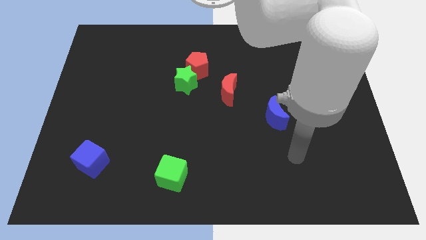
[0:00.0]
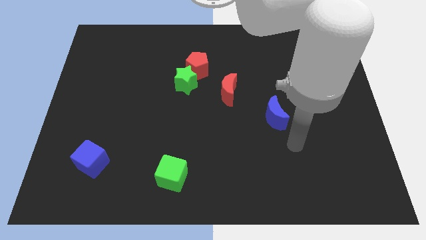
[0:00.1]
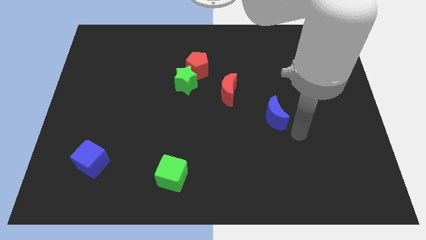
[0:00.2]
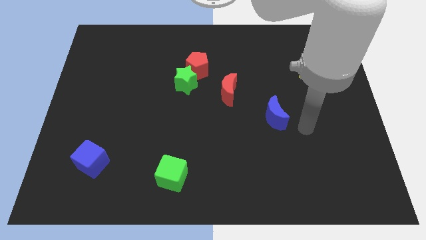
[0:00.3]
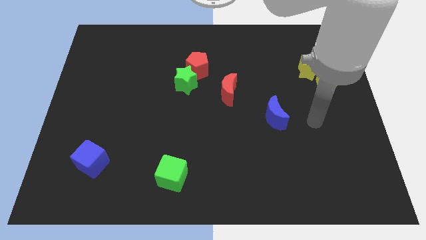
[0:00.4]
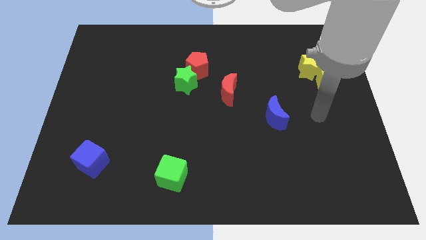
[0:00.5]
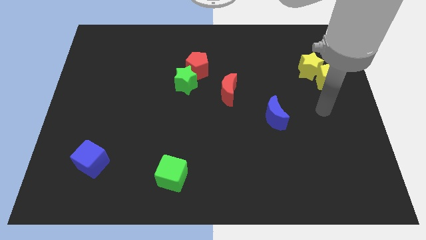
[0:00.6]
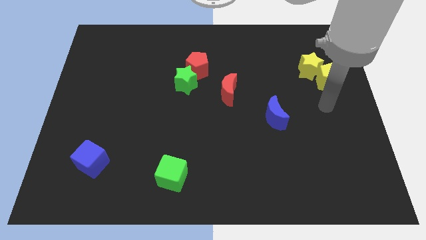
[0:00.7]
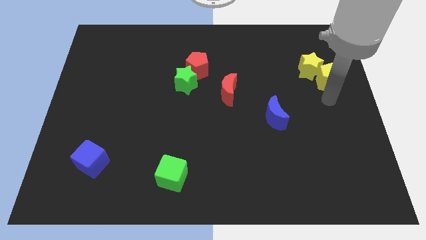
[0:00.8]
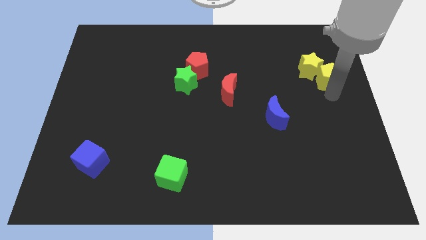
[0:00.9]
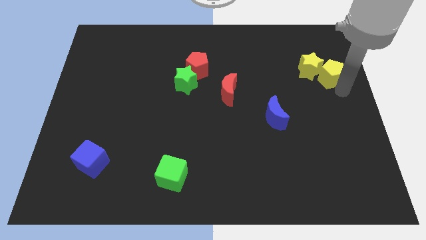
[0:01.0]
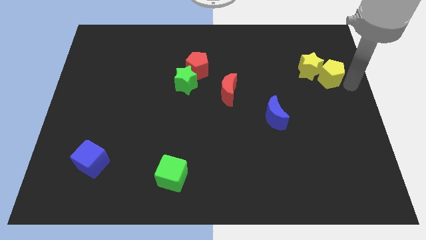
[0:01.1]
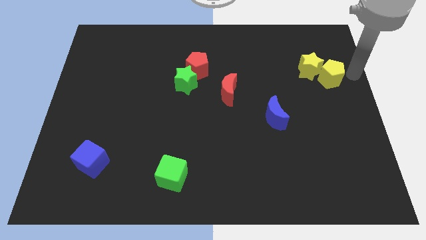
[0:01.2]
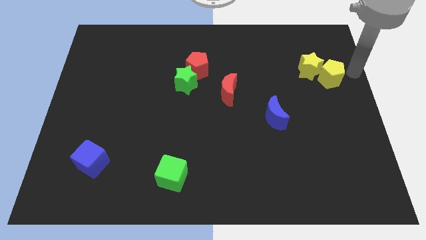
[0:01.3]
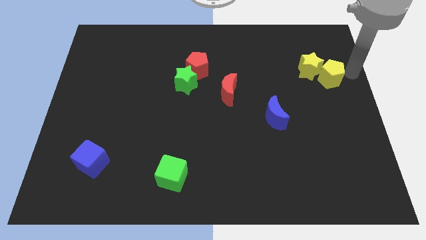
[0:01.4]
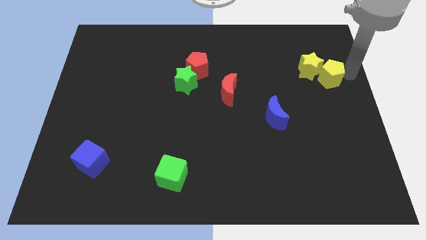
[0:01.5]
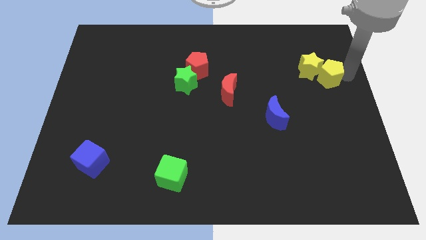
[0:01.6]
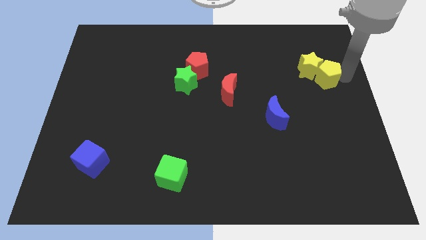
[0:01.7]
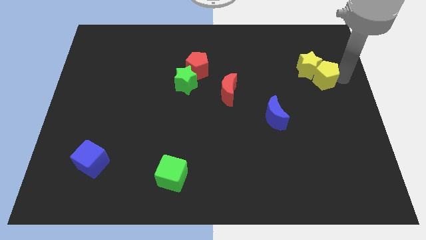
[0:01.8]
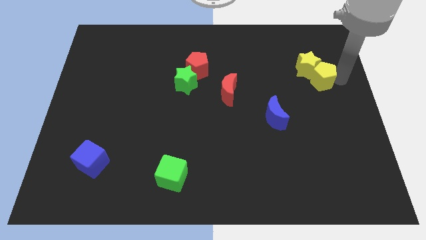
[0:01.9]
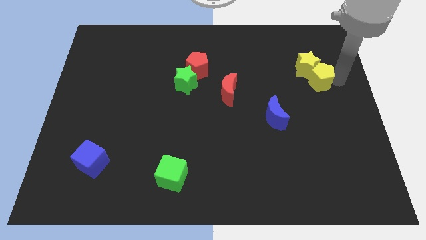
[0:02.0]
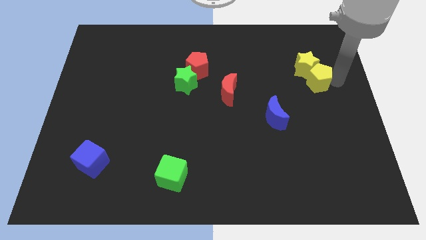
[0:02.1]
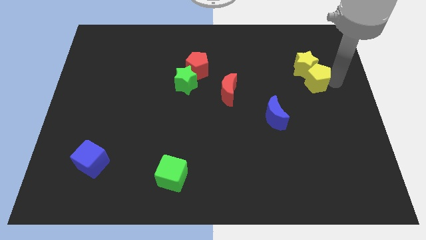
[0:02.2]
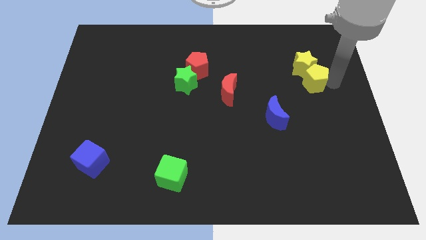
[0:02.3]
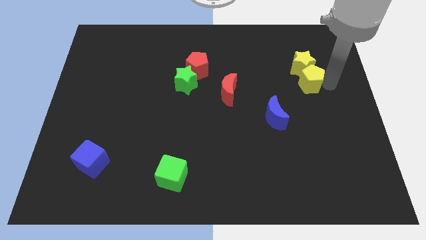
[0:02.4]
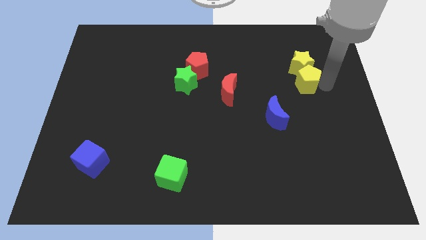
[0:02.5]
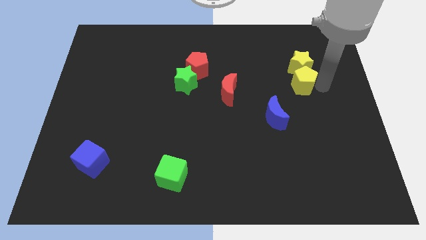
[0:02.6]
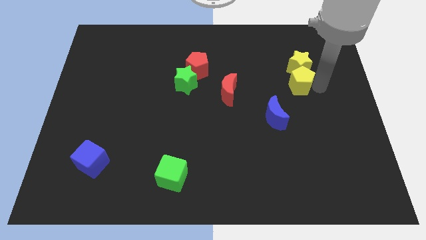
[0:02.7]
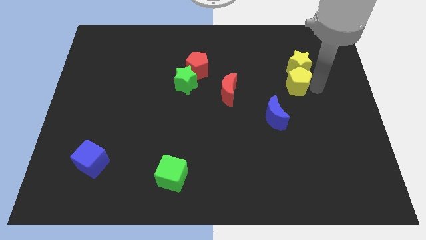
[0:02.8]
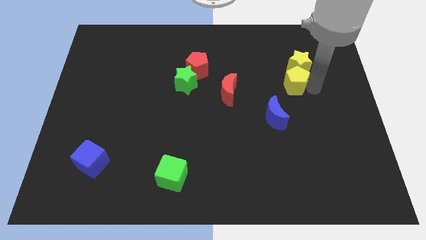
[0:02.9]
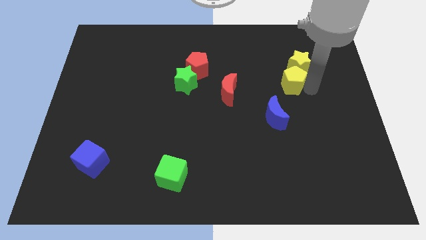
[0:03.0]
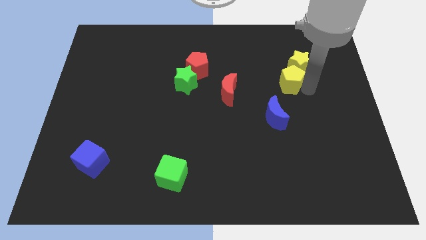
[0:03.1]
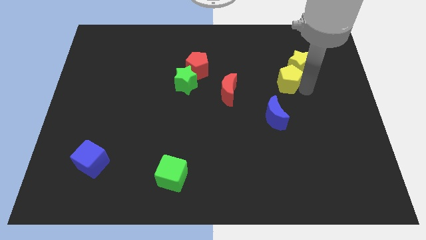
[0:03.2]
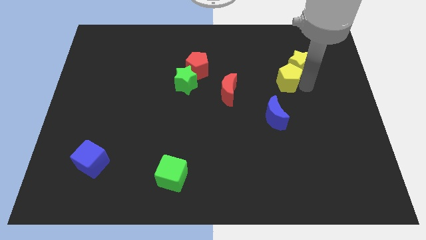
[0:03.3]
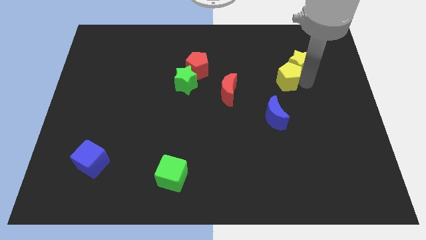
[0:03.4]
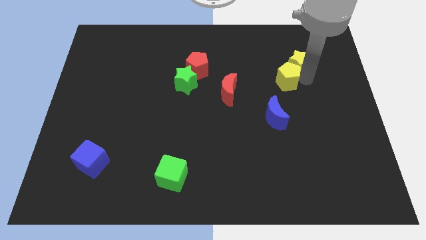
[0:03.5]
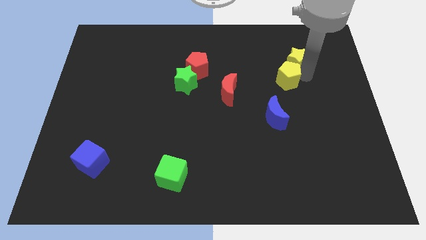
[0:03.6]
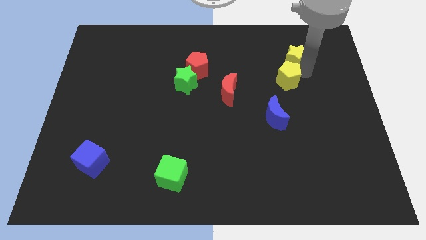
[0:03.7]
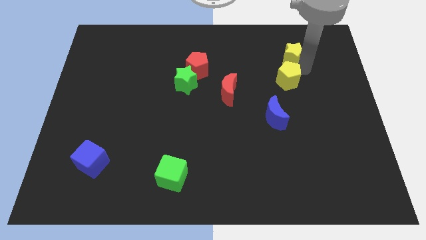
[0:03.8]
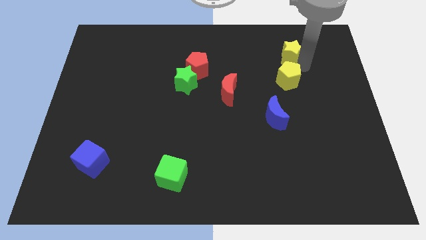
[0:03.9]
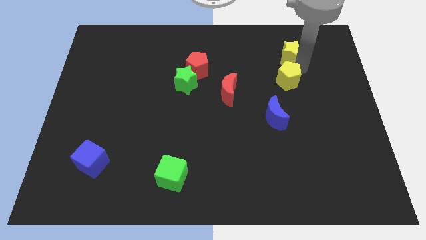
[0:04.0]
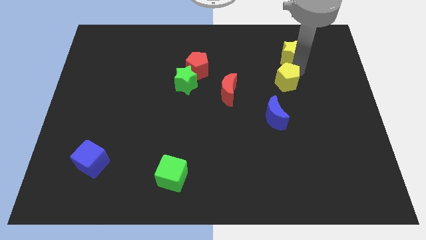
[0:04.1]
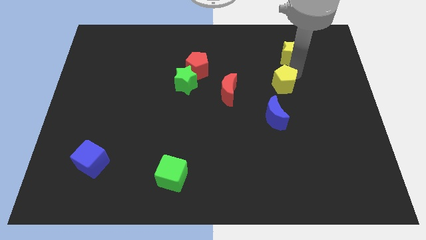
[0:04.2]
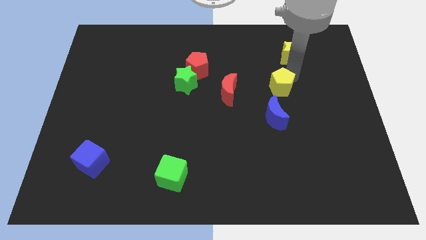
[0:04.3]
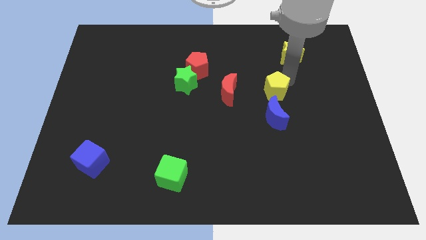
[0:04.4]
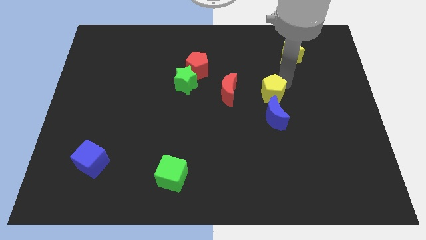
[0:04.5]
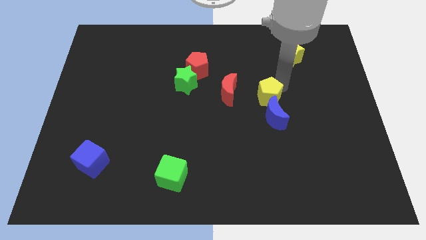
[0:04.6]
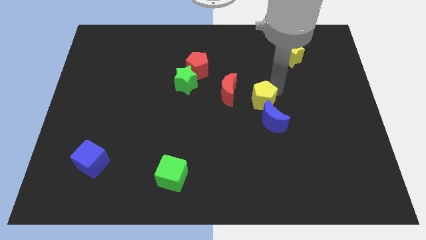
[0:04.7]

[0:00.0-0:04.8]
slide the yellow pentagon to the middle

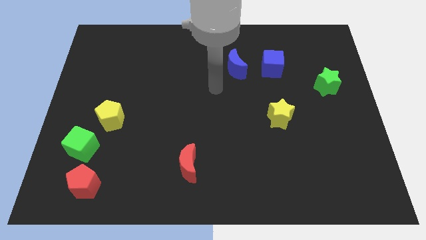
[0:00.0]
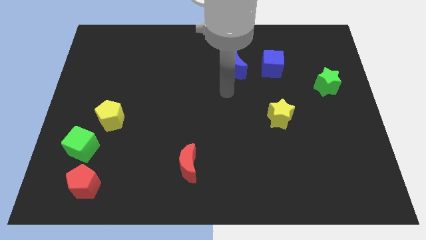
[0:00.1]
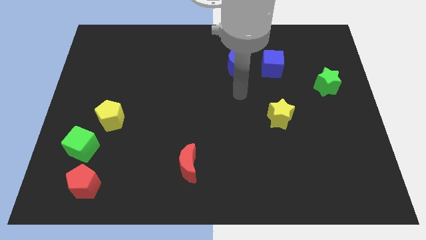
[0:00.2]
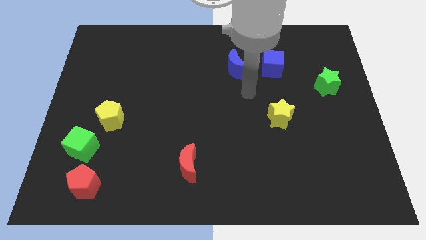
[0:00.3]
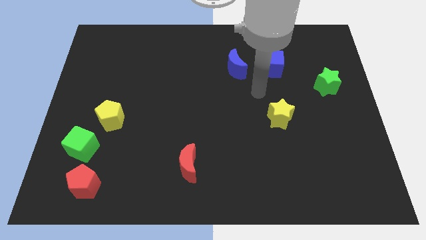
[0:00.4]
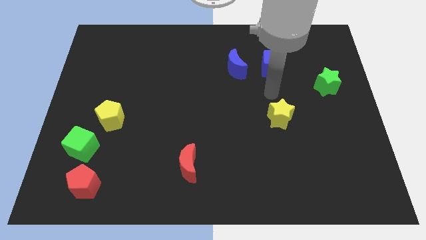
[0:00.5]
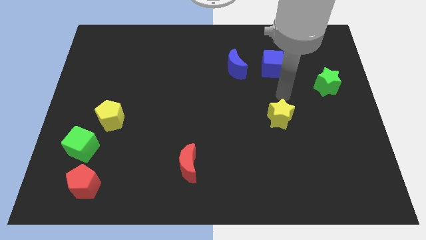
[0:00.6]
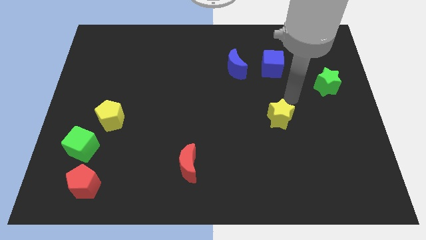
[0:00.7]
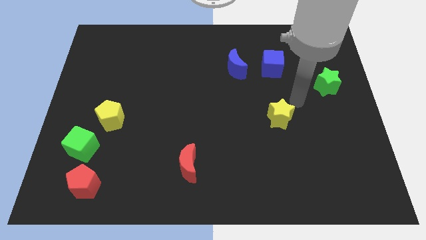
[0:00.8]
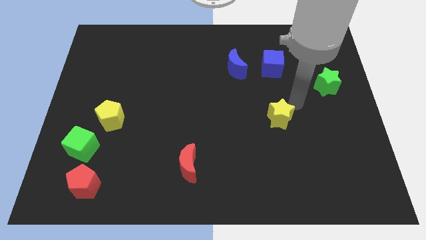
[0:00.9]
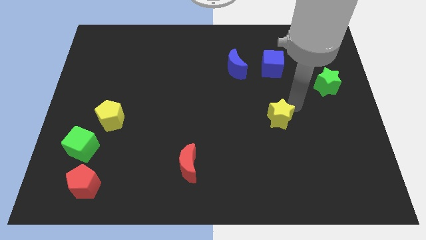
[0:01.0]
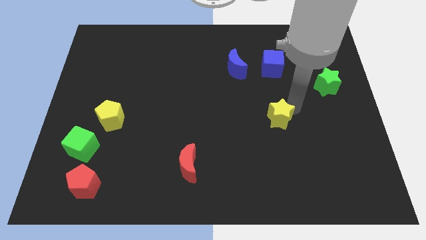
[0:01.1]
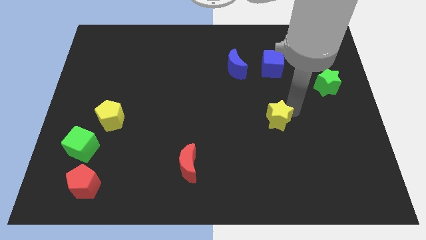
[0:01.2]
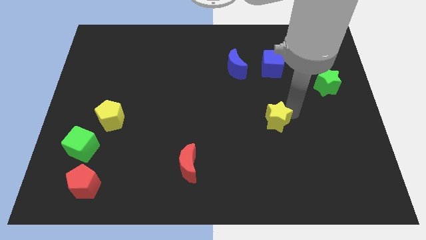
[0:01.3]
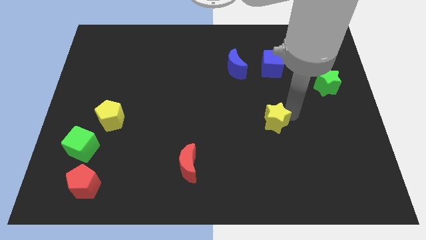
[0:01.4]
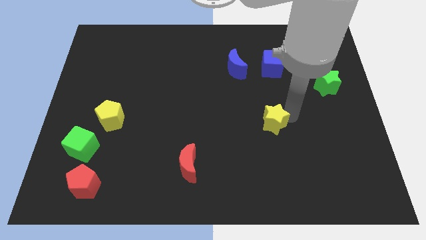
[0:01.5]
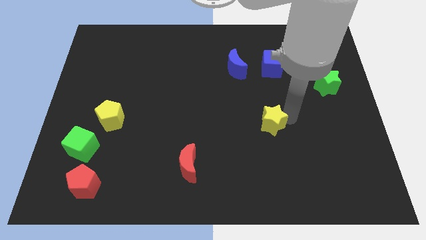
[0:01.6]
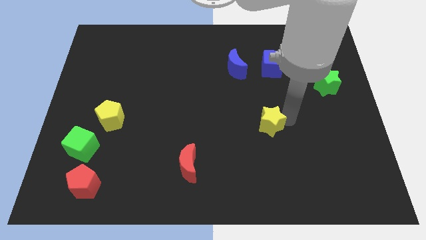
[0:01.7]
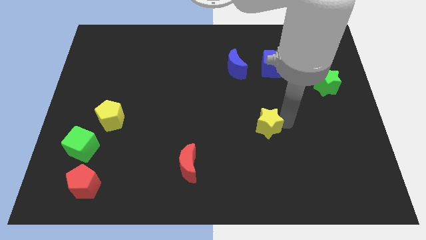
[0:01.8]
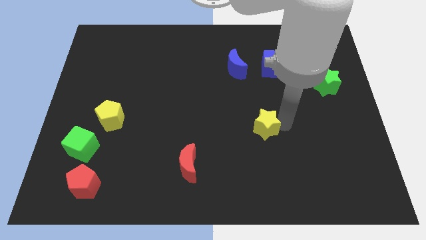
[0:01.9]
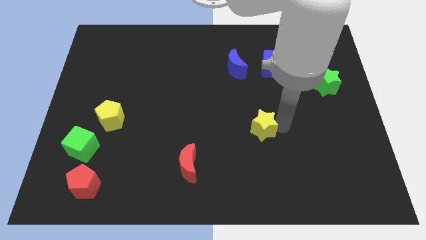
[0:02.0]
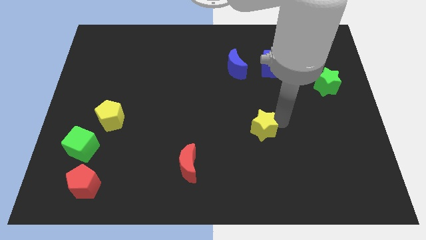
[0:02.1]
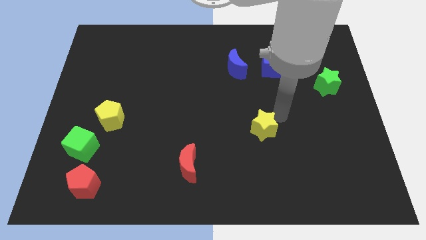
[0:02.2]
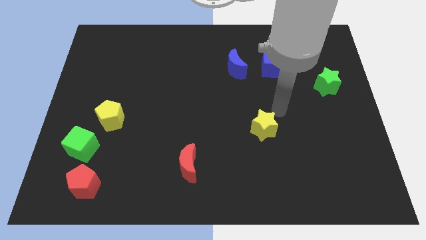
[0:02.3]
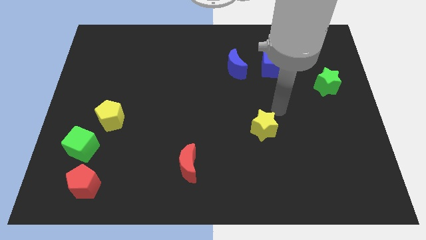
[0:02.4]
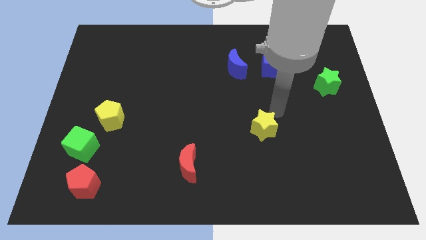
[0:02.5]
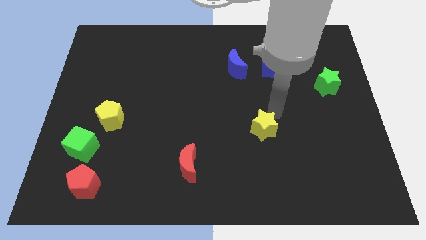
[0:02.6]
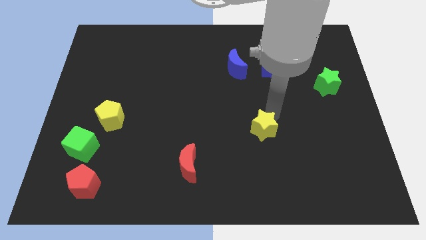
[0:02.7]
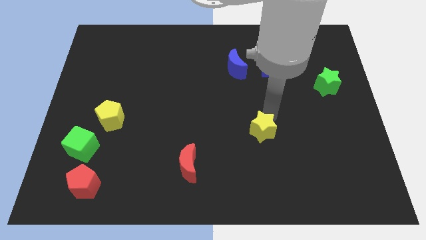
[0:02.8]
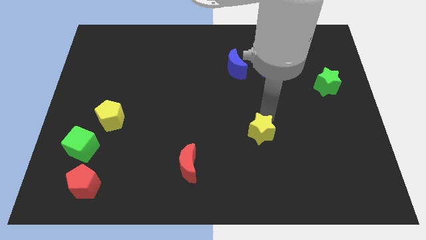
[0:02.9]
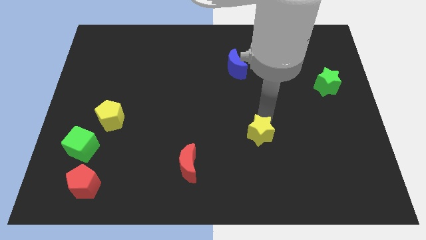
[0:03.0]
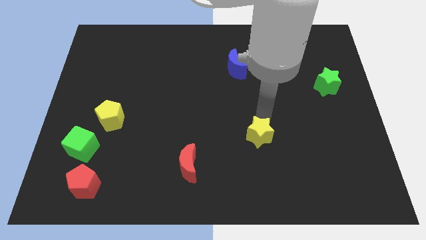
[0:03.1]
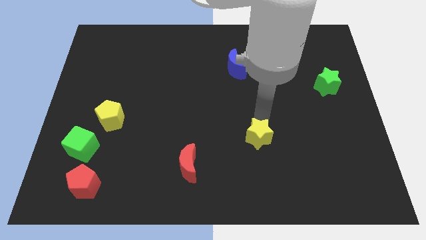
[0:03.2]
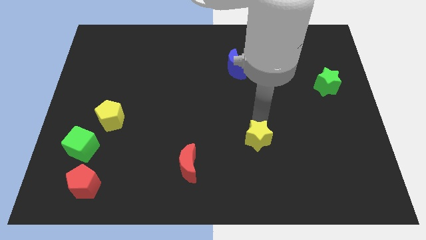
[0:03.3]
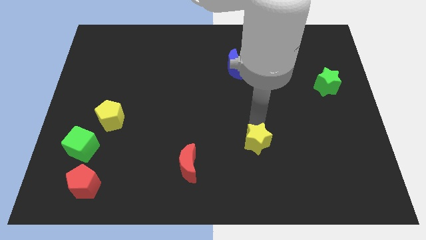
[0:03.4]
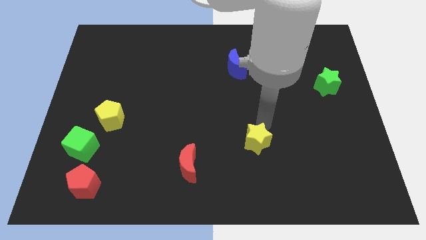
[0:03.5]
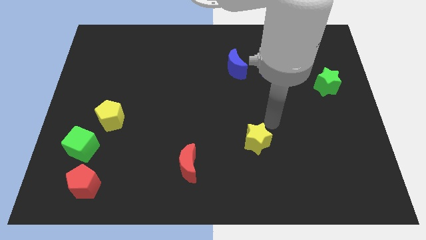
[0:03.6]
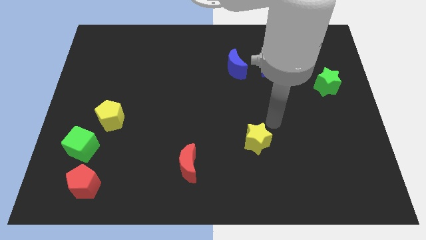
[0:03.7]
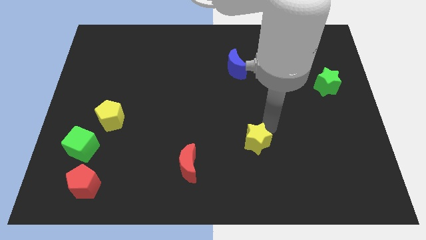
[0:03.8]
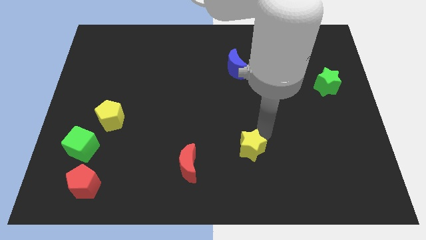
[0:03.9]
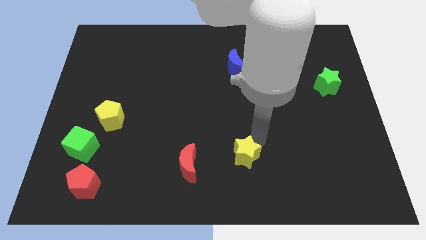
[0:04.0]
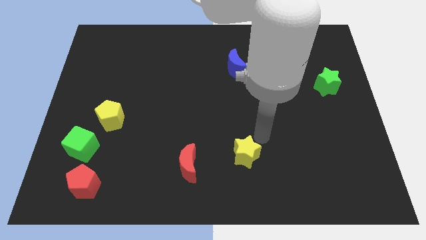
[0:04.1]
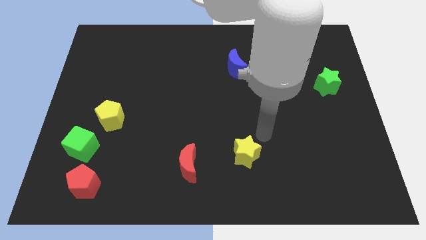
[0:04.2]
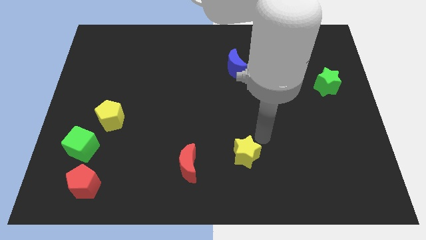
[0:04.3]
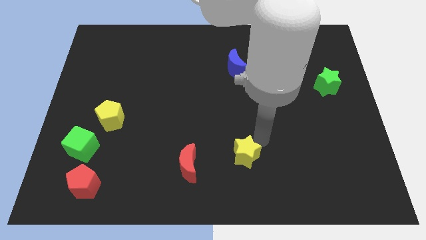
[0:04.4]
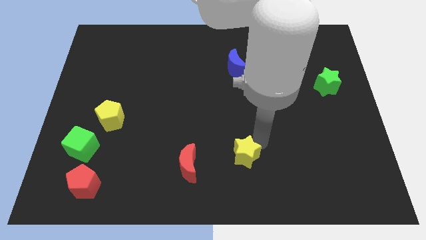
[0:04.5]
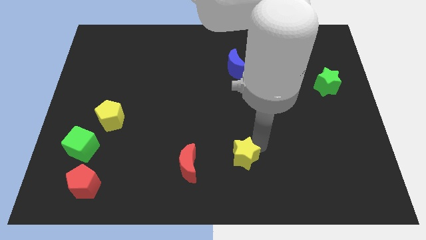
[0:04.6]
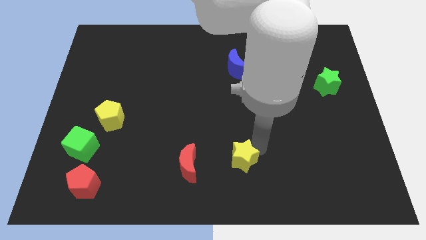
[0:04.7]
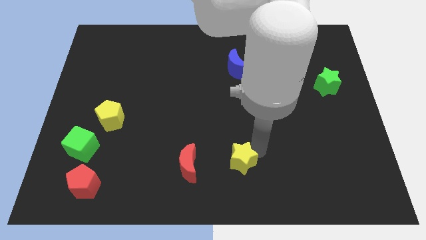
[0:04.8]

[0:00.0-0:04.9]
move the yellow star to the bottom
